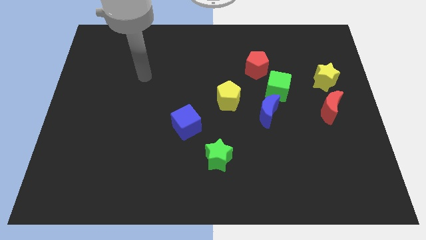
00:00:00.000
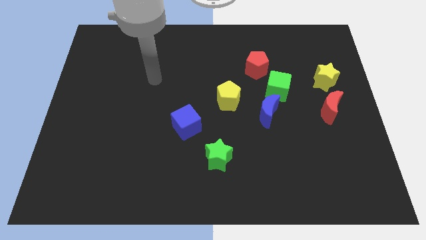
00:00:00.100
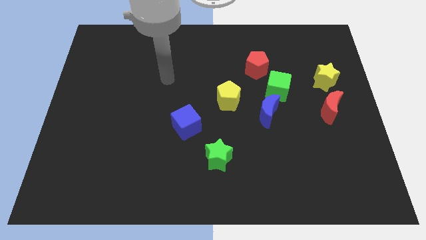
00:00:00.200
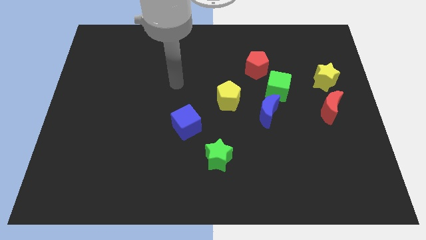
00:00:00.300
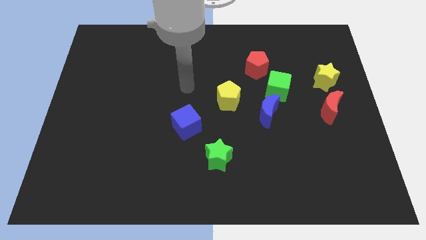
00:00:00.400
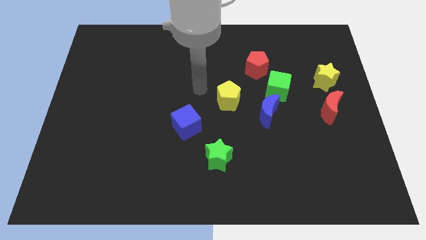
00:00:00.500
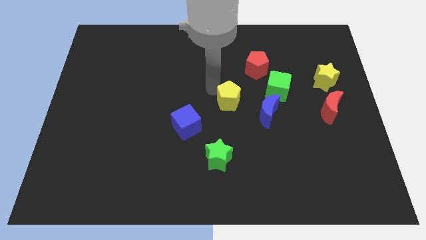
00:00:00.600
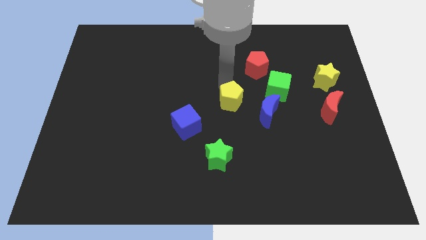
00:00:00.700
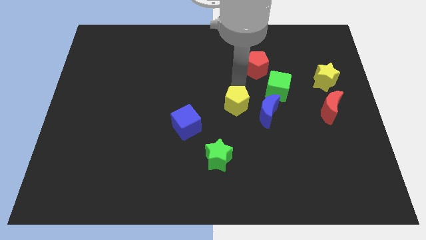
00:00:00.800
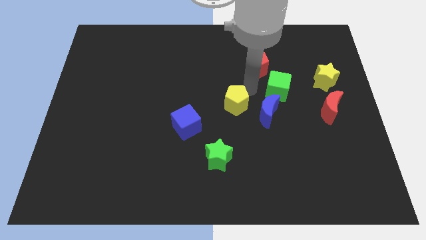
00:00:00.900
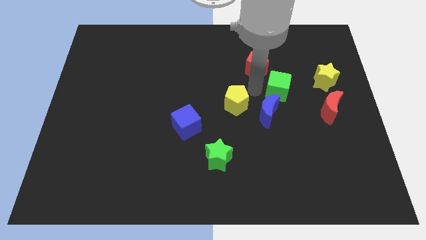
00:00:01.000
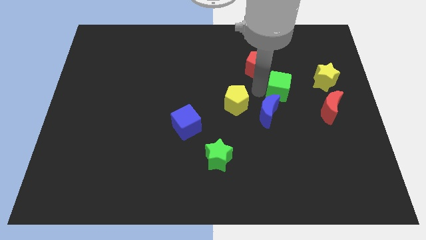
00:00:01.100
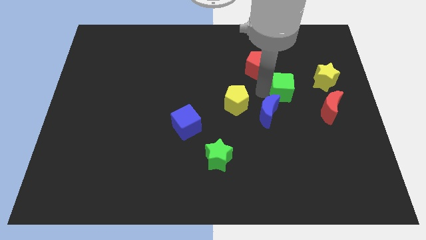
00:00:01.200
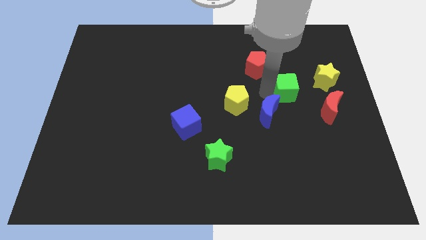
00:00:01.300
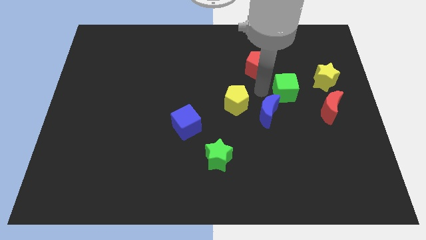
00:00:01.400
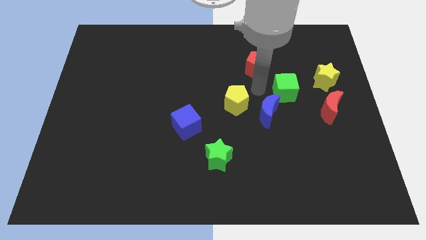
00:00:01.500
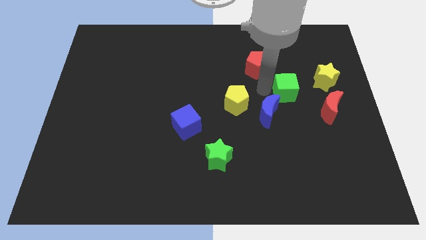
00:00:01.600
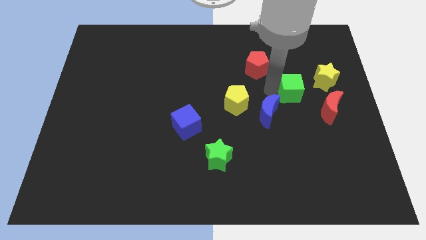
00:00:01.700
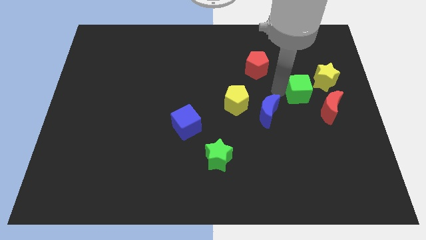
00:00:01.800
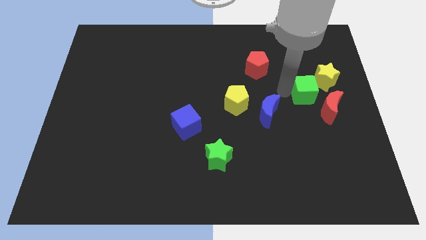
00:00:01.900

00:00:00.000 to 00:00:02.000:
separate the green cube from the blue moon and red pentagon

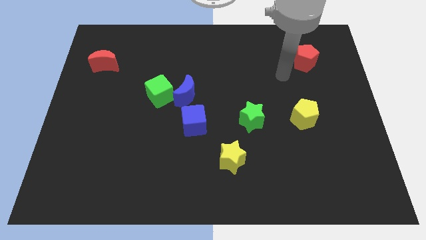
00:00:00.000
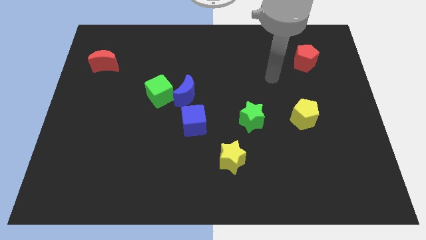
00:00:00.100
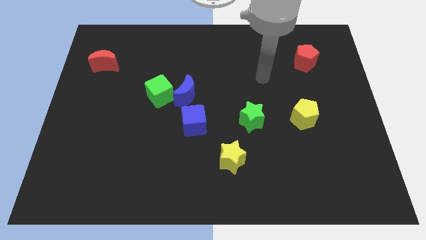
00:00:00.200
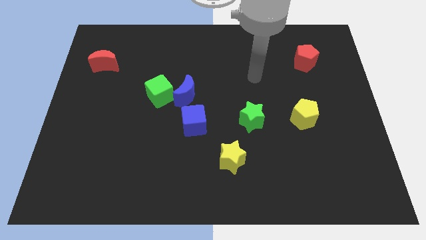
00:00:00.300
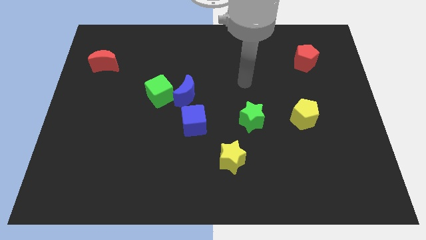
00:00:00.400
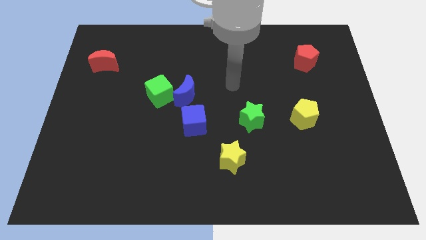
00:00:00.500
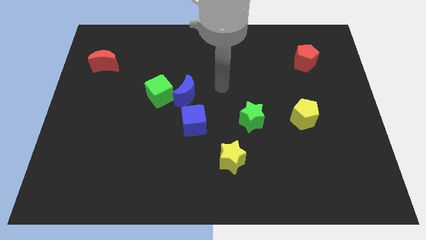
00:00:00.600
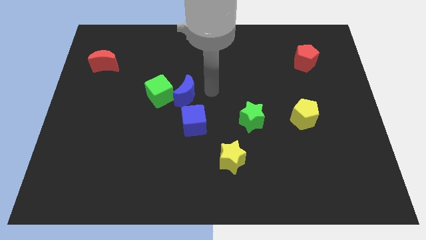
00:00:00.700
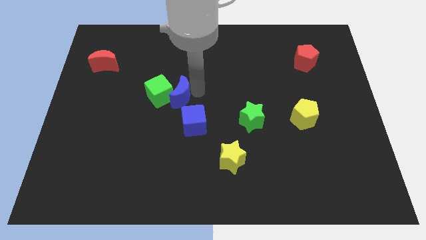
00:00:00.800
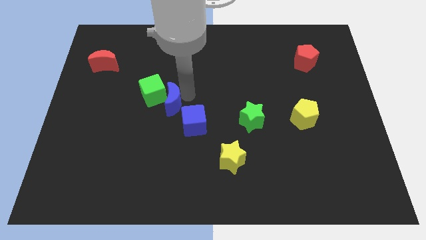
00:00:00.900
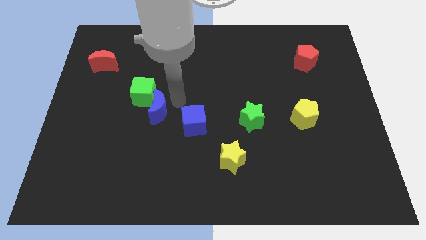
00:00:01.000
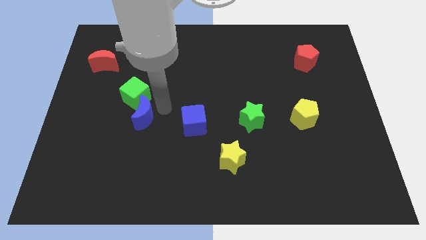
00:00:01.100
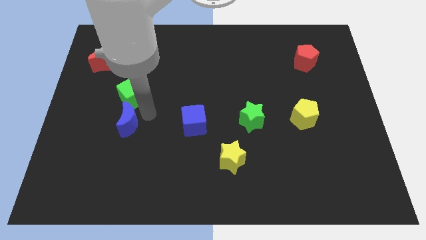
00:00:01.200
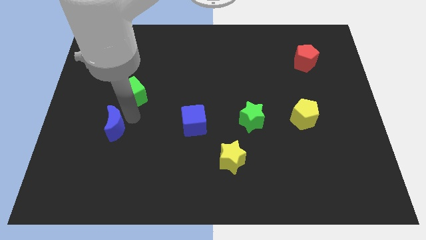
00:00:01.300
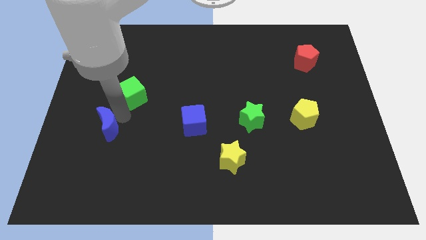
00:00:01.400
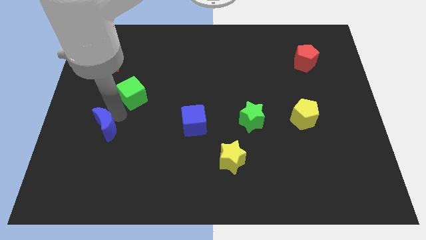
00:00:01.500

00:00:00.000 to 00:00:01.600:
move the green cube away from the blue moon

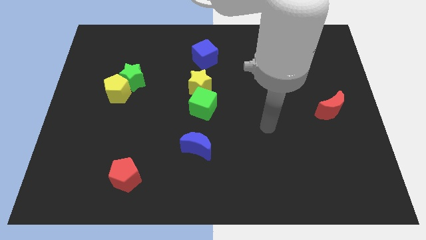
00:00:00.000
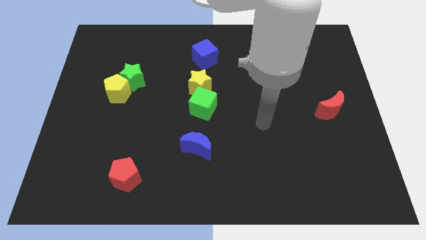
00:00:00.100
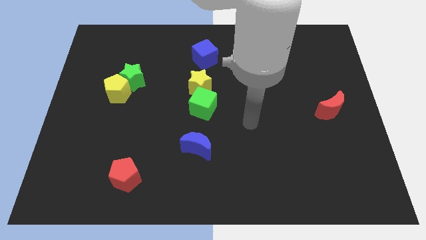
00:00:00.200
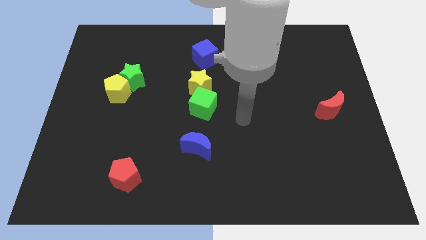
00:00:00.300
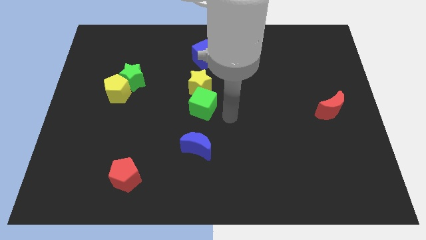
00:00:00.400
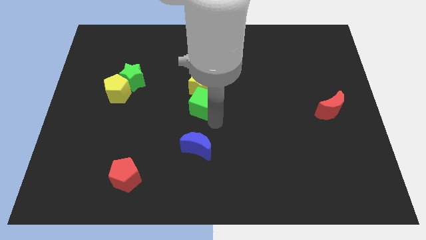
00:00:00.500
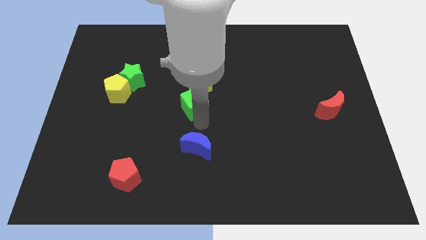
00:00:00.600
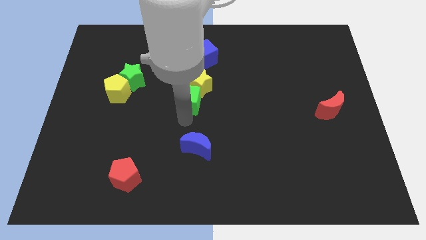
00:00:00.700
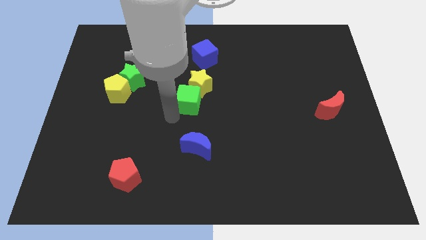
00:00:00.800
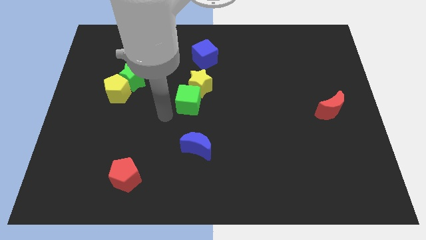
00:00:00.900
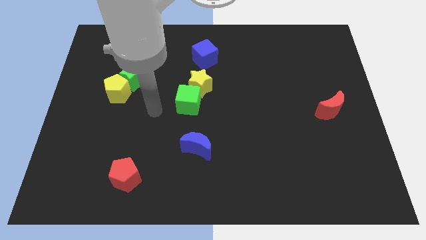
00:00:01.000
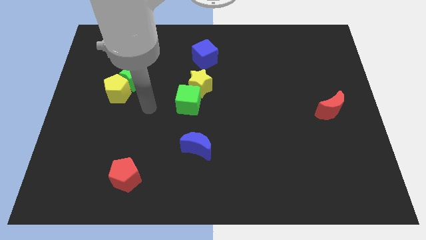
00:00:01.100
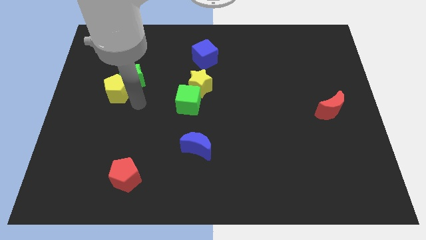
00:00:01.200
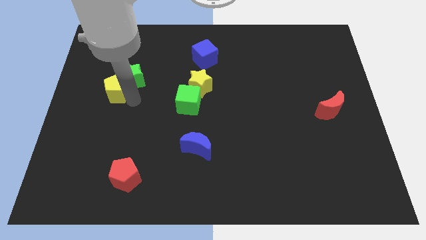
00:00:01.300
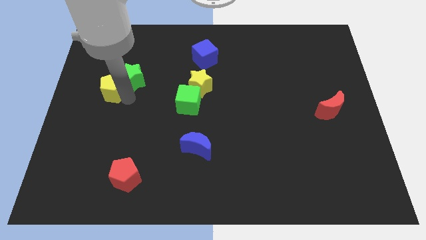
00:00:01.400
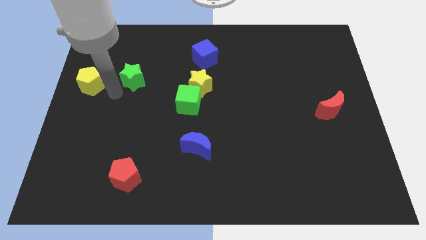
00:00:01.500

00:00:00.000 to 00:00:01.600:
move the green star away from the yellow pentagon

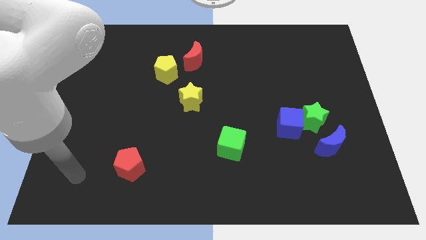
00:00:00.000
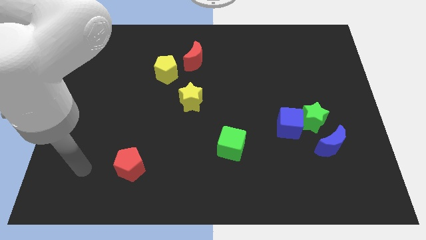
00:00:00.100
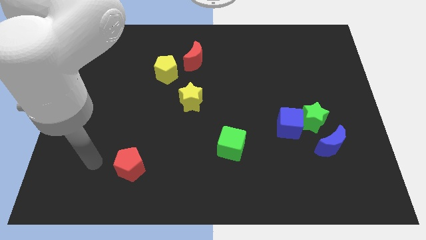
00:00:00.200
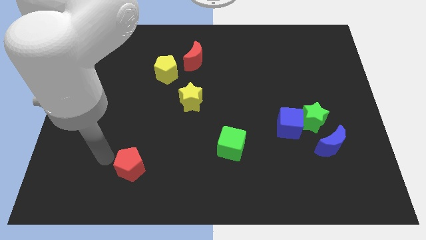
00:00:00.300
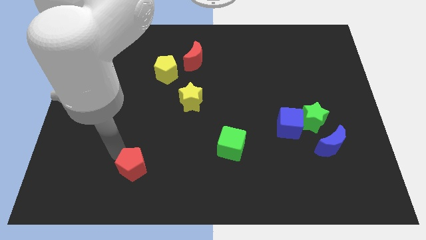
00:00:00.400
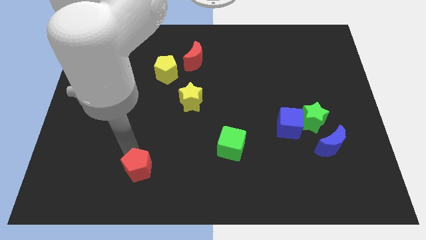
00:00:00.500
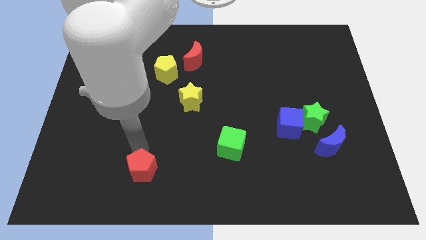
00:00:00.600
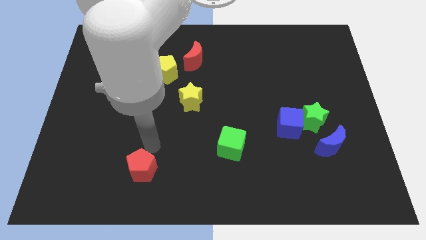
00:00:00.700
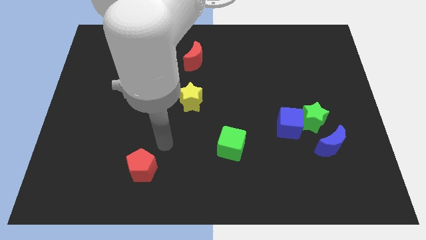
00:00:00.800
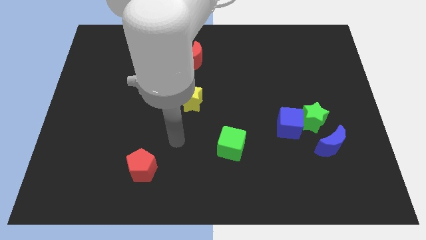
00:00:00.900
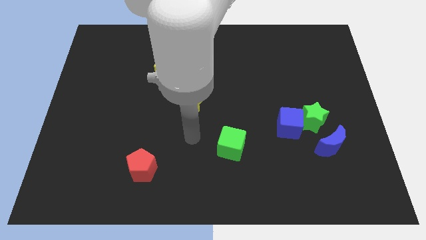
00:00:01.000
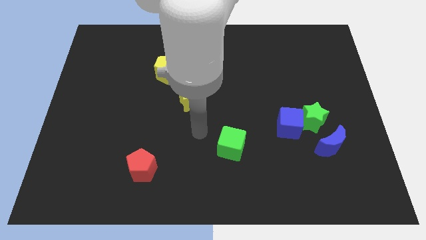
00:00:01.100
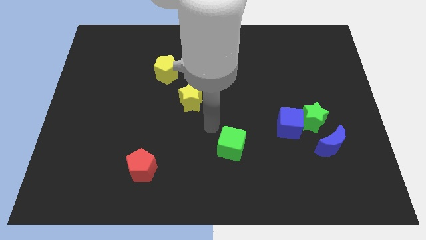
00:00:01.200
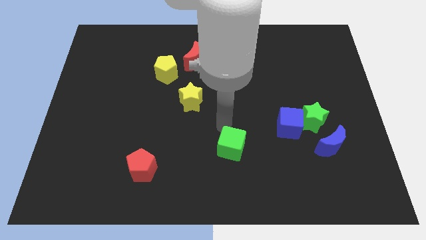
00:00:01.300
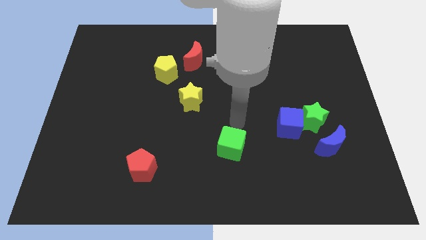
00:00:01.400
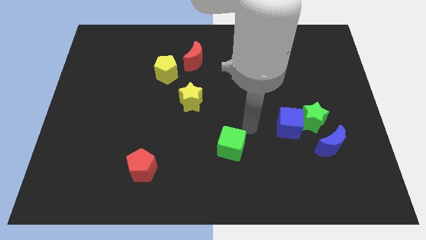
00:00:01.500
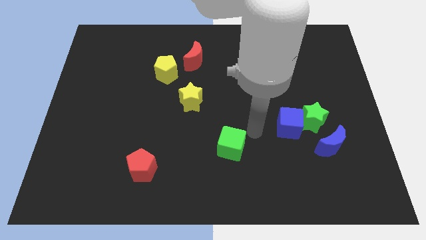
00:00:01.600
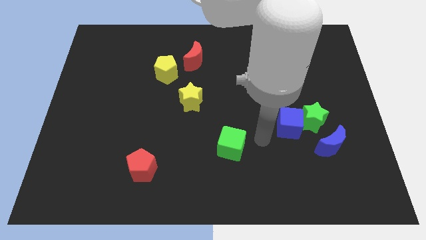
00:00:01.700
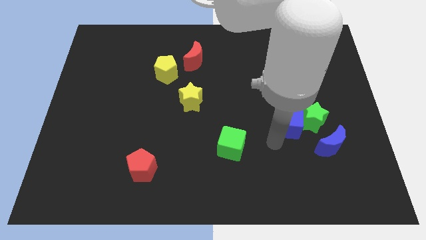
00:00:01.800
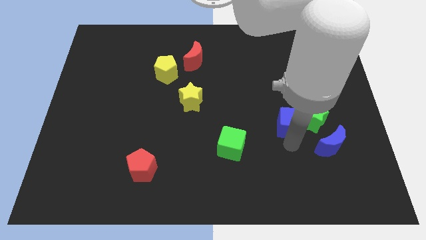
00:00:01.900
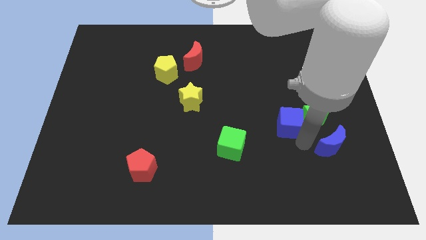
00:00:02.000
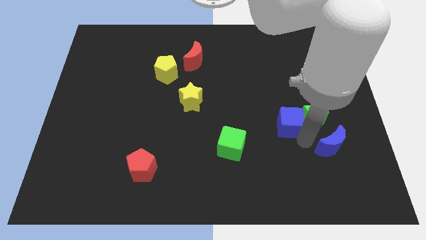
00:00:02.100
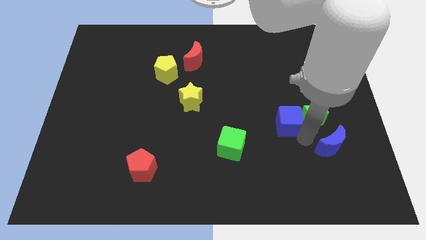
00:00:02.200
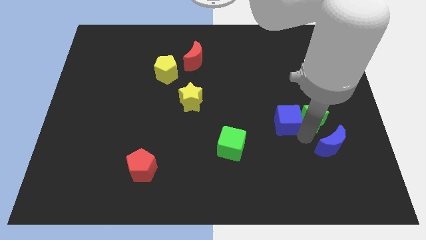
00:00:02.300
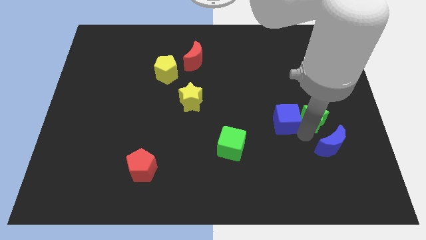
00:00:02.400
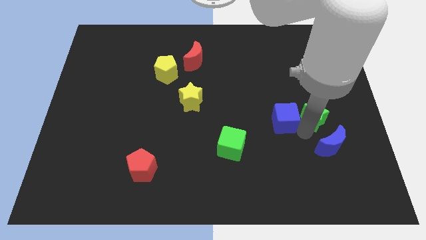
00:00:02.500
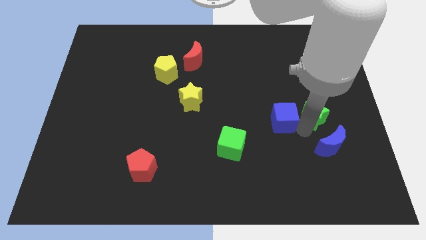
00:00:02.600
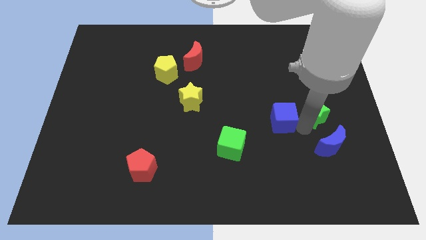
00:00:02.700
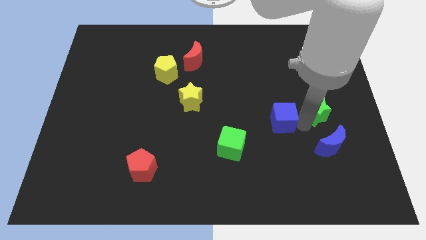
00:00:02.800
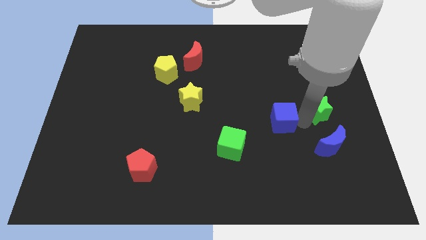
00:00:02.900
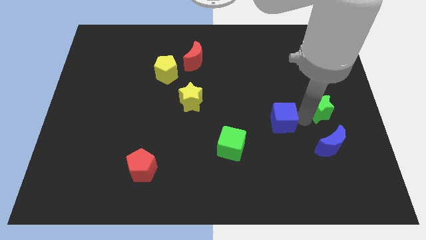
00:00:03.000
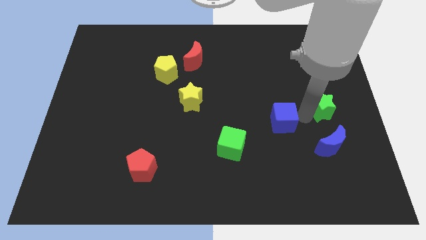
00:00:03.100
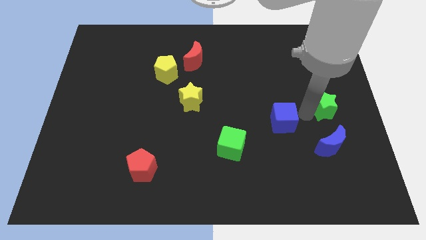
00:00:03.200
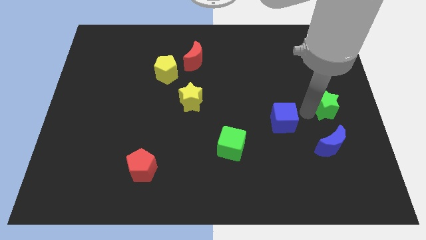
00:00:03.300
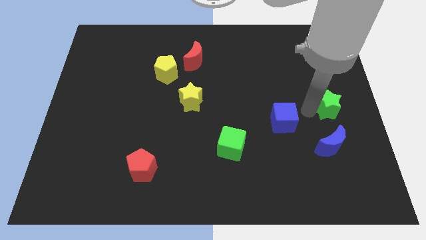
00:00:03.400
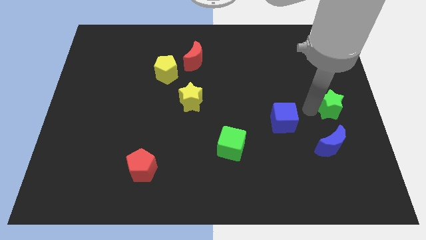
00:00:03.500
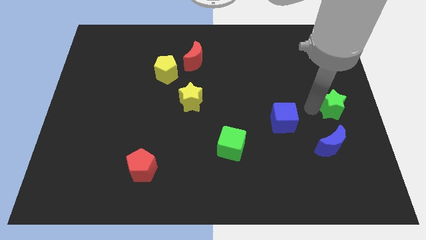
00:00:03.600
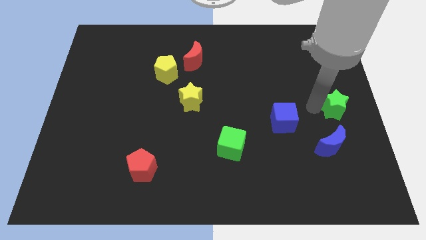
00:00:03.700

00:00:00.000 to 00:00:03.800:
separate the green star from the blue cube and blue moon

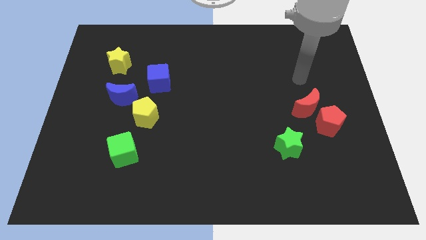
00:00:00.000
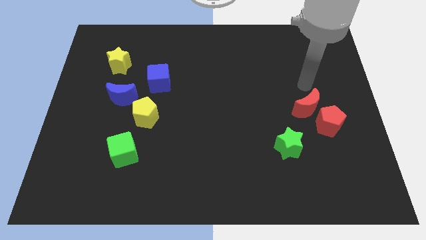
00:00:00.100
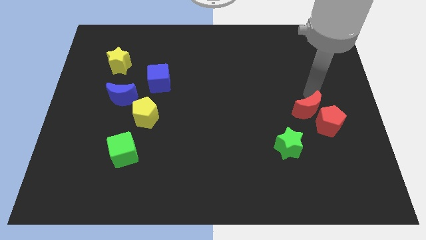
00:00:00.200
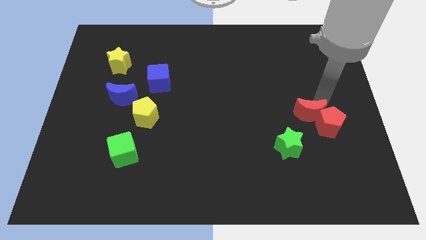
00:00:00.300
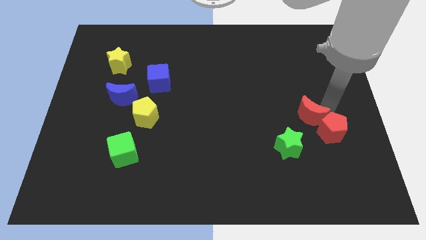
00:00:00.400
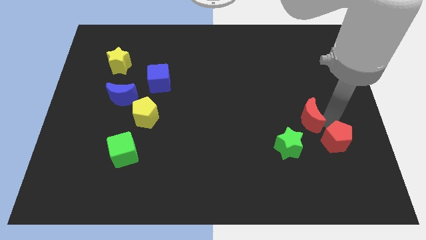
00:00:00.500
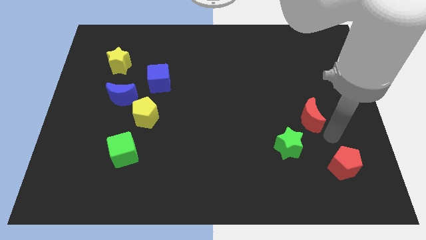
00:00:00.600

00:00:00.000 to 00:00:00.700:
move the red moon away from the red pentagon
